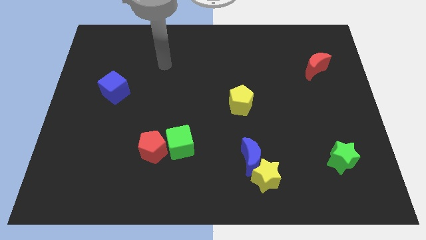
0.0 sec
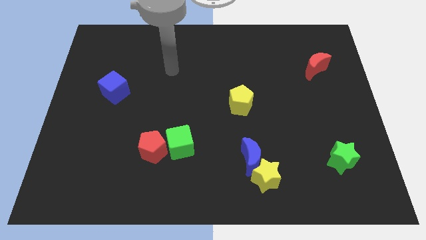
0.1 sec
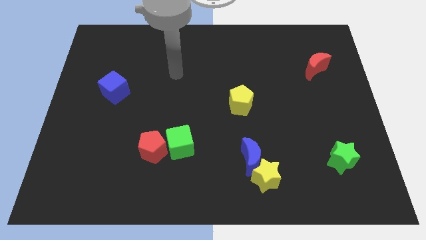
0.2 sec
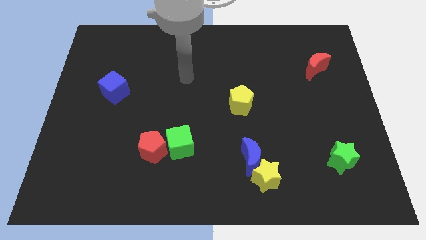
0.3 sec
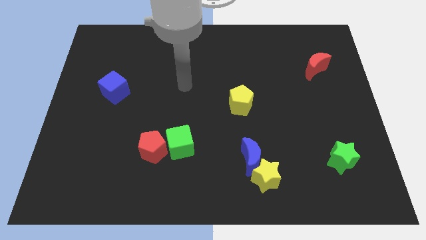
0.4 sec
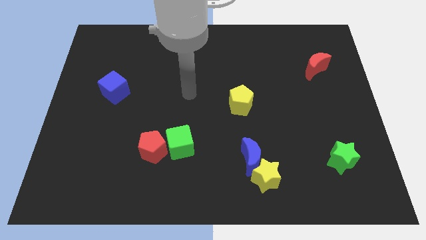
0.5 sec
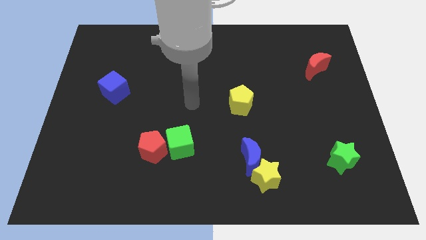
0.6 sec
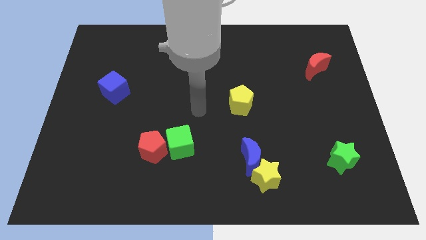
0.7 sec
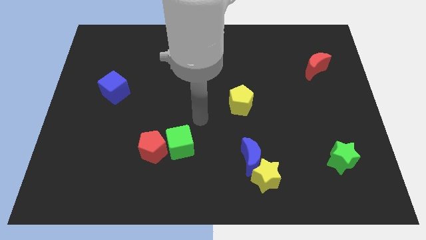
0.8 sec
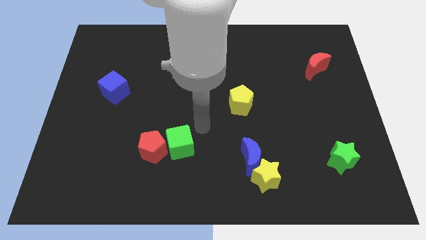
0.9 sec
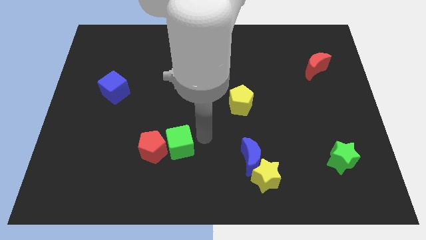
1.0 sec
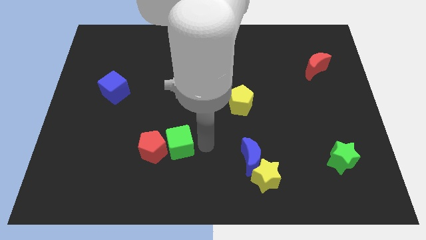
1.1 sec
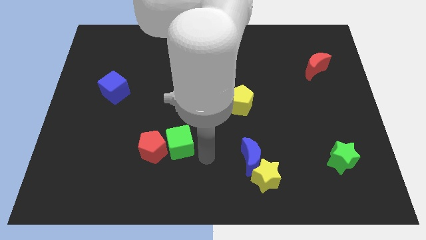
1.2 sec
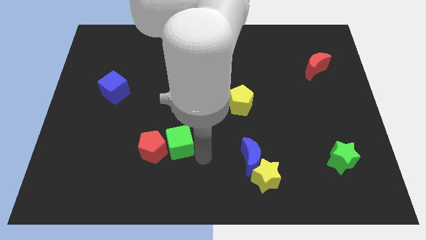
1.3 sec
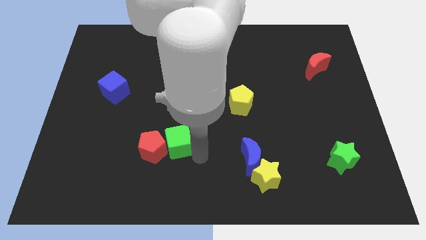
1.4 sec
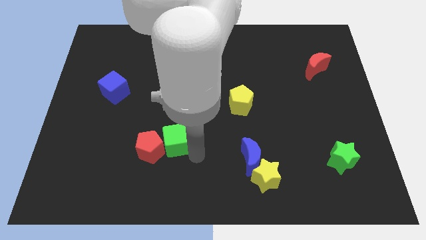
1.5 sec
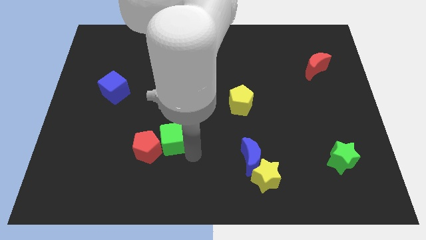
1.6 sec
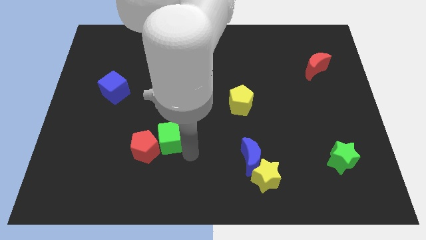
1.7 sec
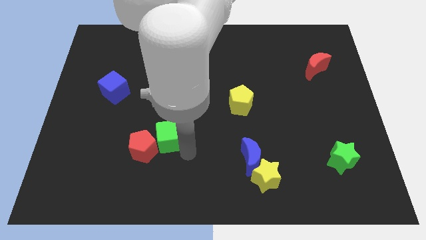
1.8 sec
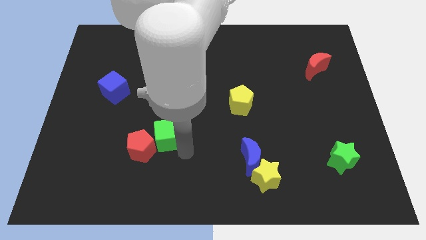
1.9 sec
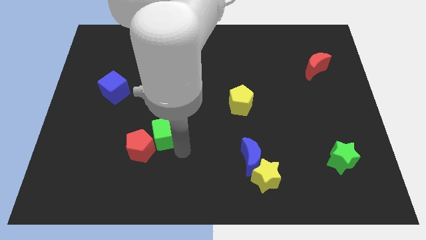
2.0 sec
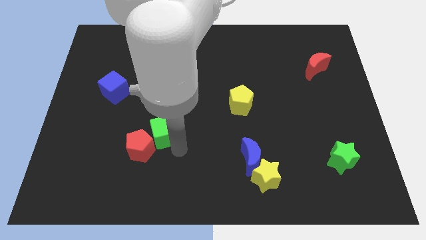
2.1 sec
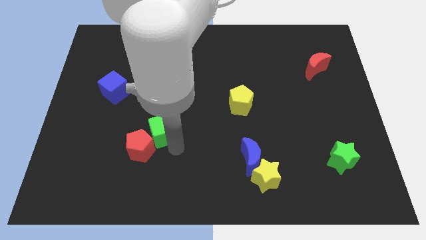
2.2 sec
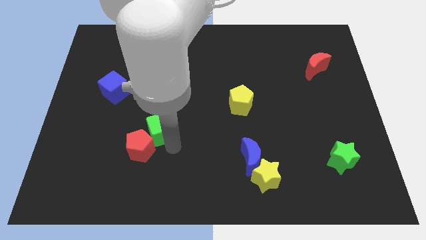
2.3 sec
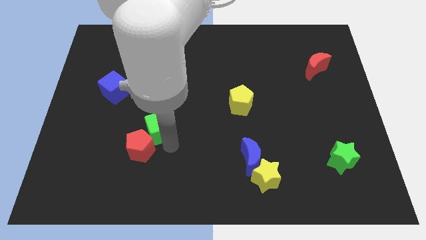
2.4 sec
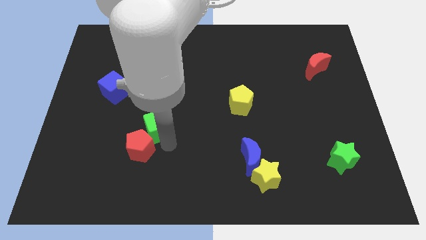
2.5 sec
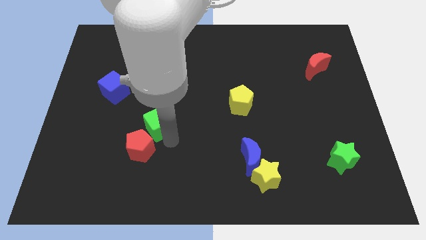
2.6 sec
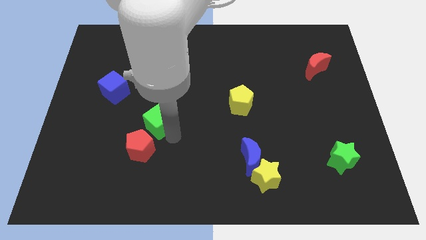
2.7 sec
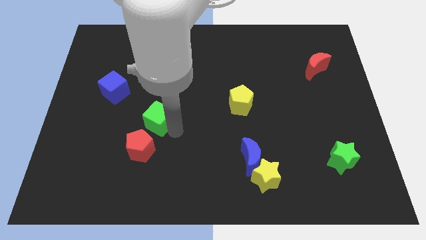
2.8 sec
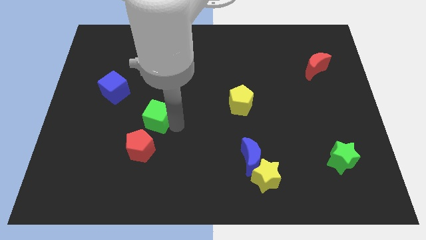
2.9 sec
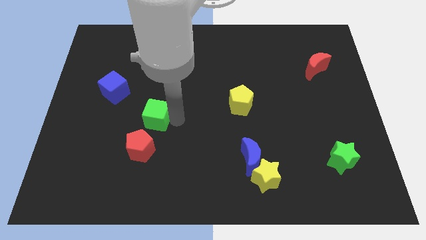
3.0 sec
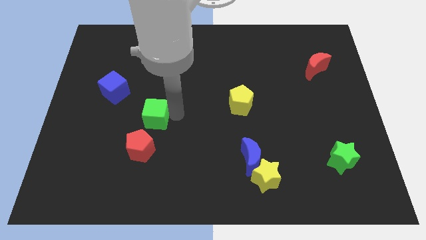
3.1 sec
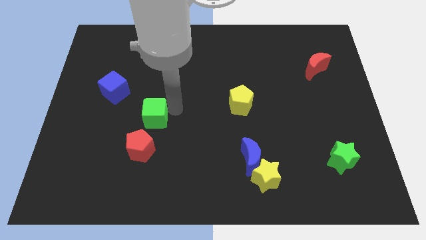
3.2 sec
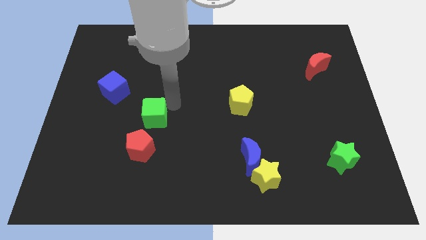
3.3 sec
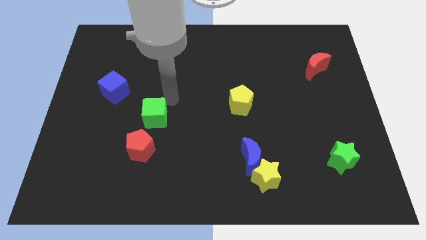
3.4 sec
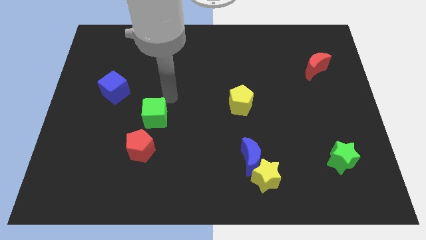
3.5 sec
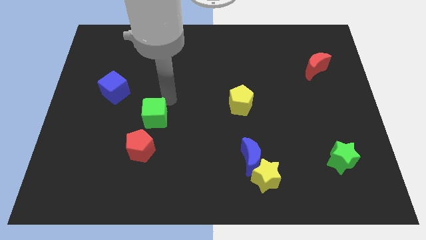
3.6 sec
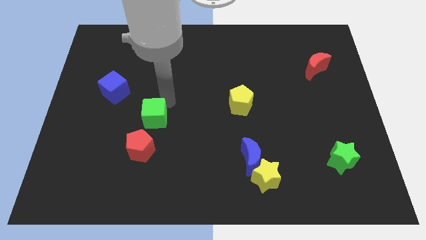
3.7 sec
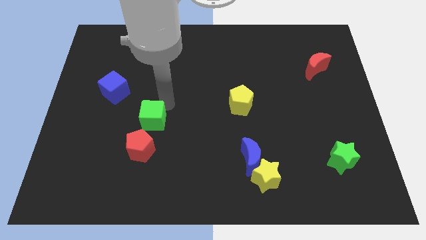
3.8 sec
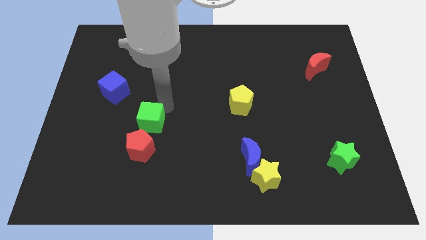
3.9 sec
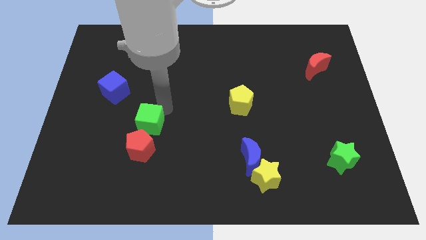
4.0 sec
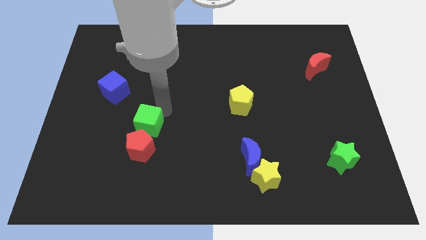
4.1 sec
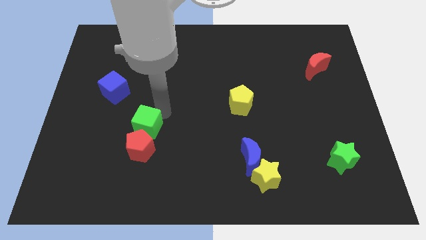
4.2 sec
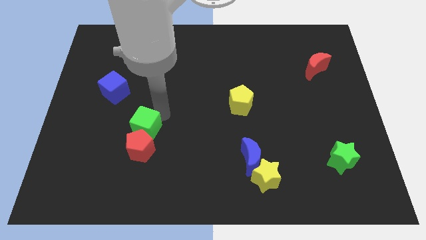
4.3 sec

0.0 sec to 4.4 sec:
slightly move the green cube to the left

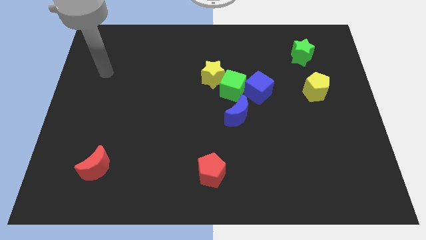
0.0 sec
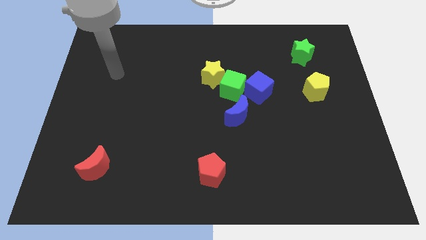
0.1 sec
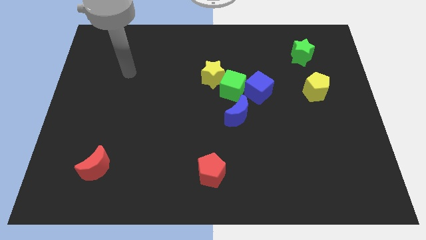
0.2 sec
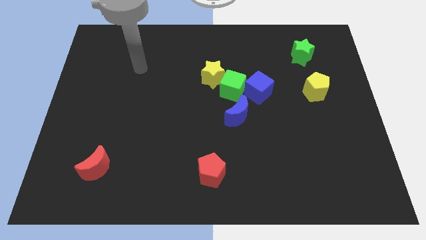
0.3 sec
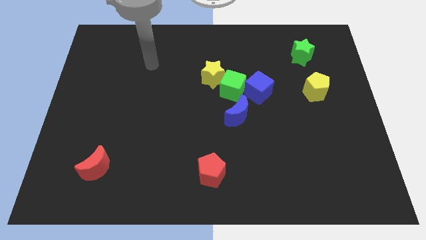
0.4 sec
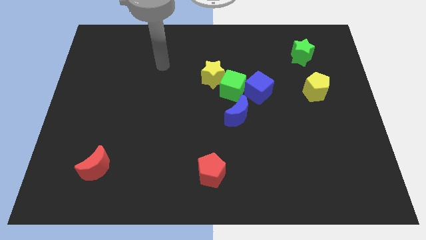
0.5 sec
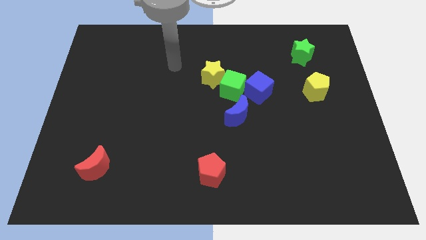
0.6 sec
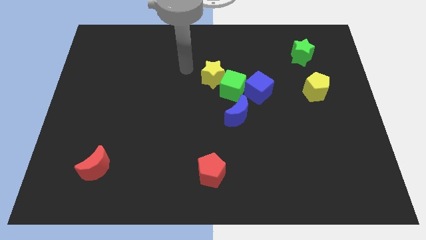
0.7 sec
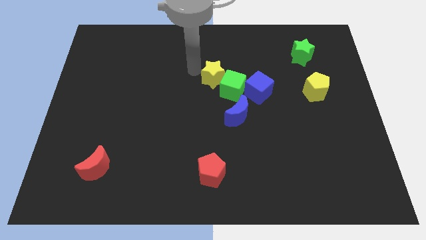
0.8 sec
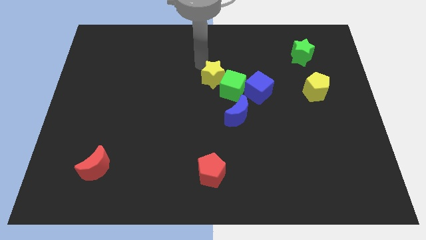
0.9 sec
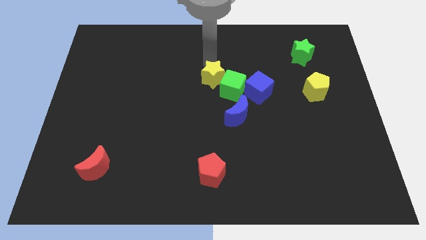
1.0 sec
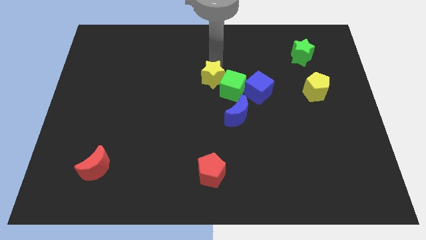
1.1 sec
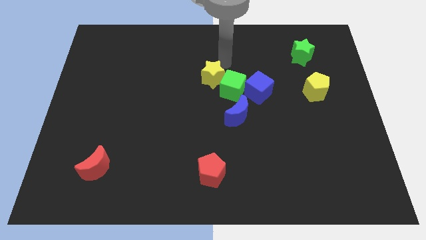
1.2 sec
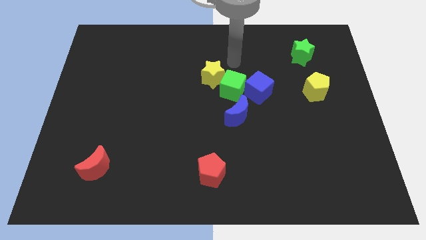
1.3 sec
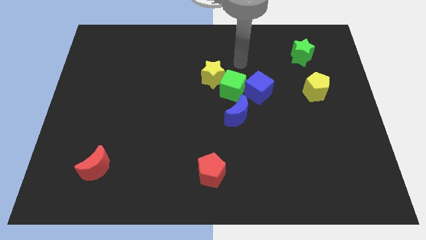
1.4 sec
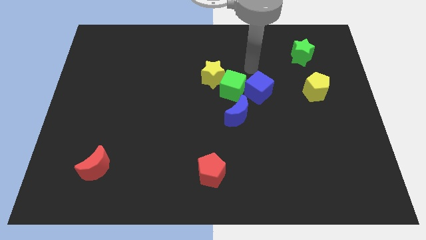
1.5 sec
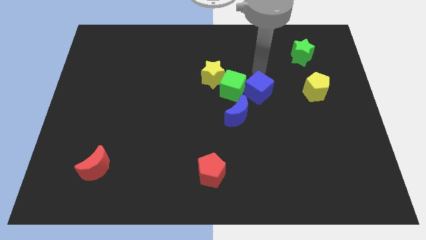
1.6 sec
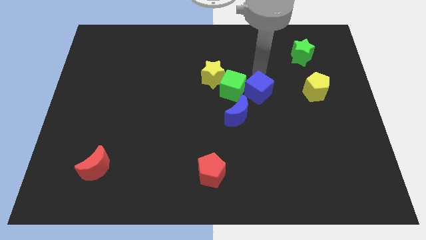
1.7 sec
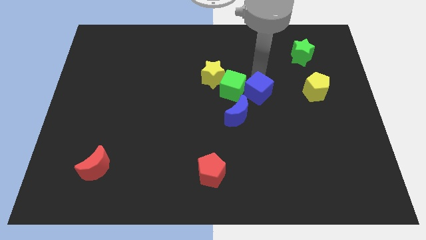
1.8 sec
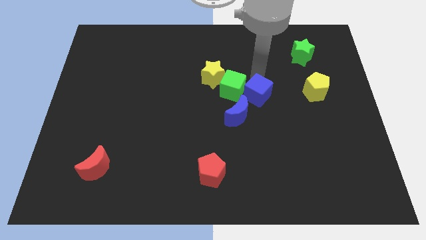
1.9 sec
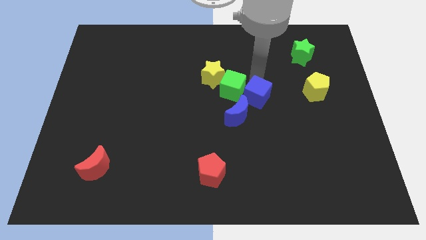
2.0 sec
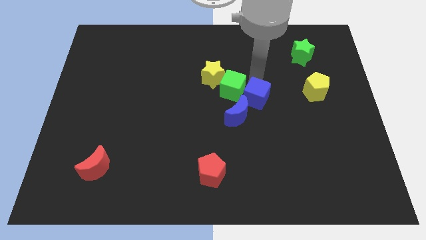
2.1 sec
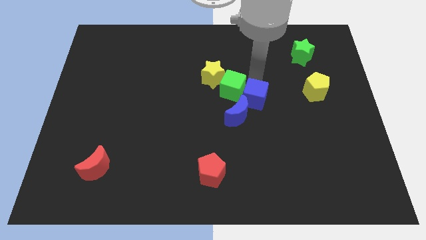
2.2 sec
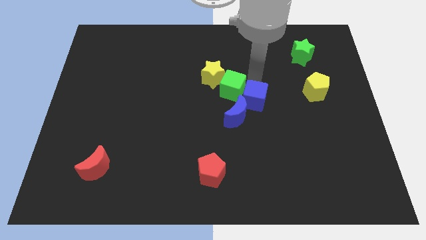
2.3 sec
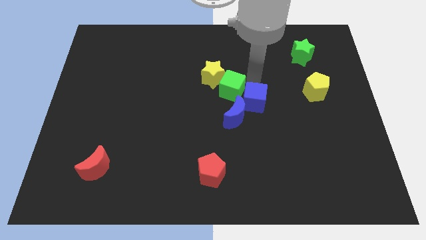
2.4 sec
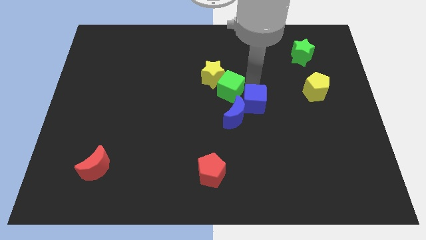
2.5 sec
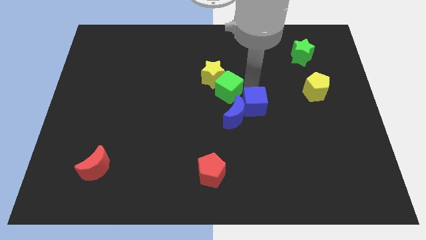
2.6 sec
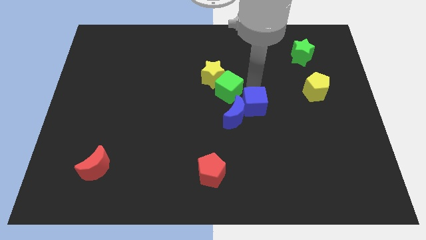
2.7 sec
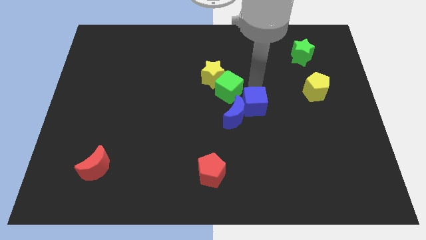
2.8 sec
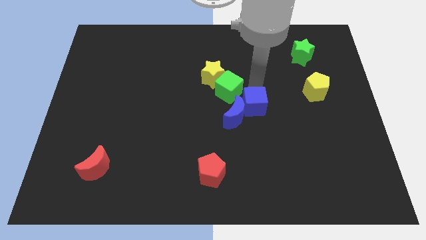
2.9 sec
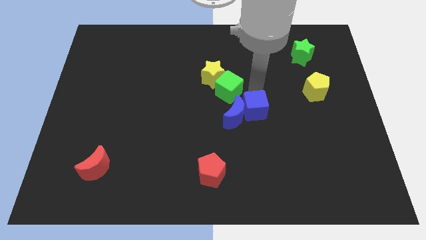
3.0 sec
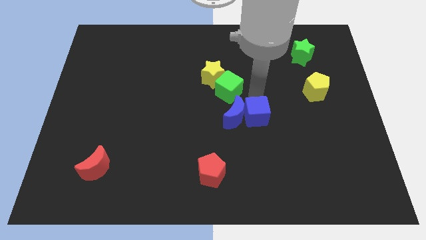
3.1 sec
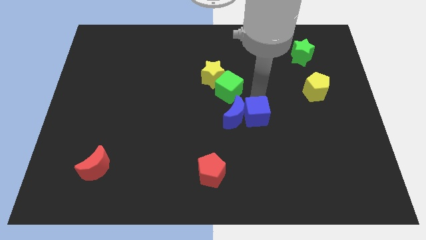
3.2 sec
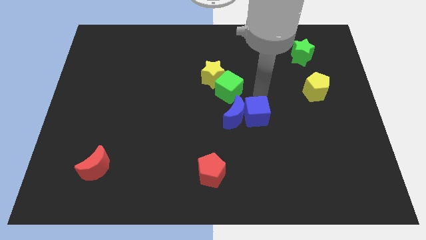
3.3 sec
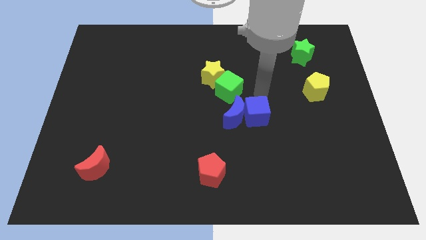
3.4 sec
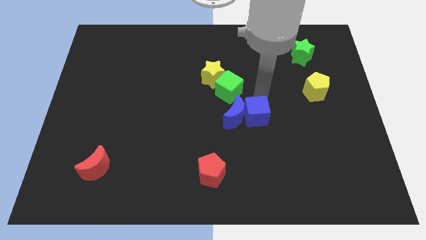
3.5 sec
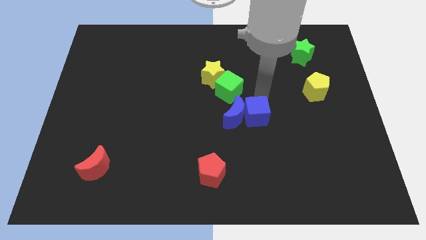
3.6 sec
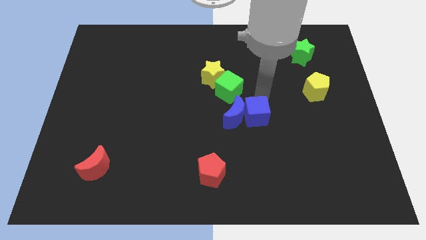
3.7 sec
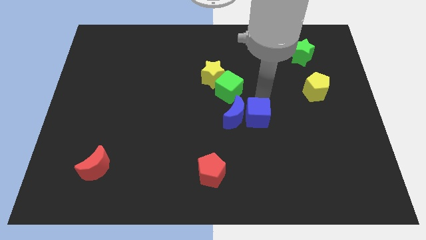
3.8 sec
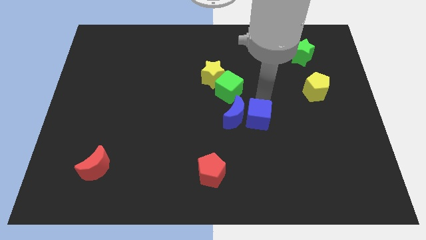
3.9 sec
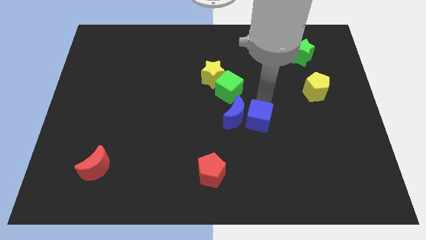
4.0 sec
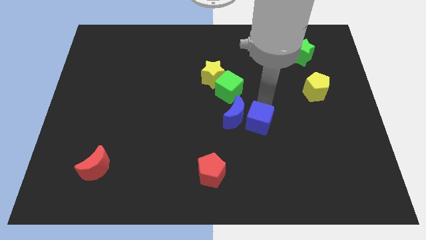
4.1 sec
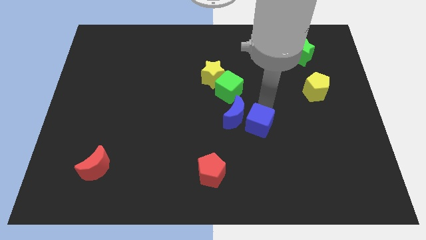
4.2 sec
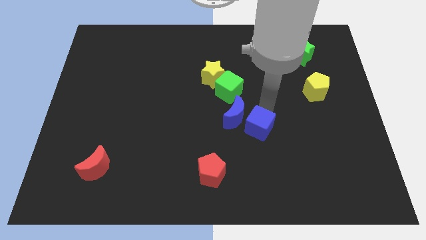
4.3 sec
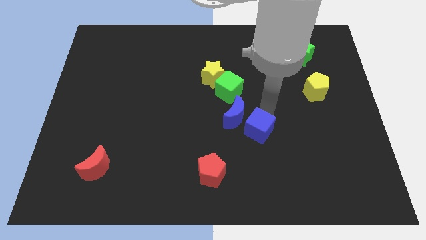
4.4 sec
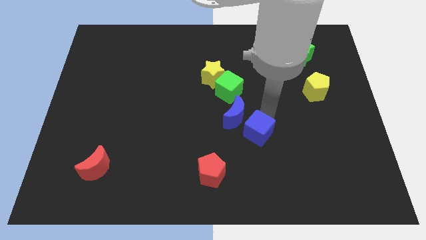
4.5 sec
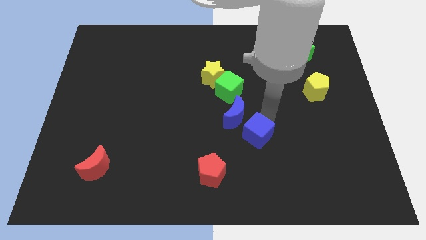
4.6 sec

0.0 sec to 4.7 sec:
move the blue cube a bit downwards and left diagonally
